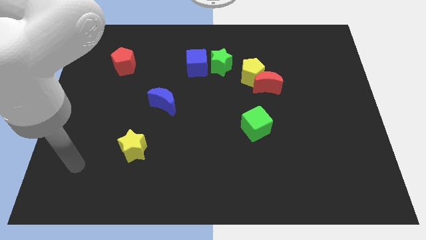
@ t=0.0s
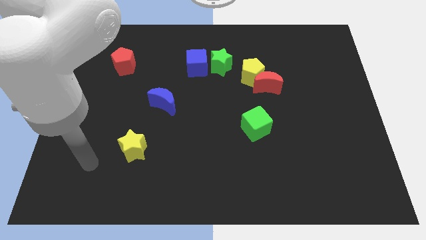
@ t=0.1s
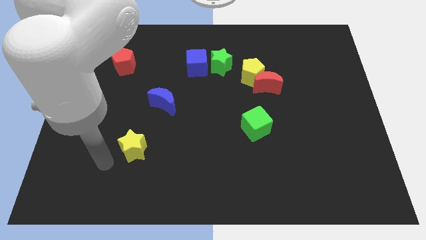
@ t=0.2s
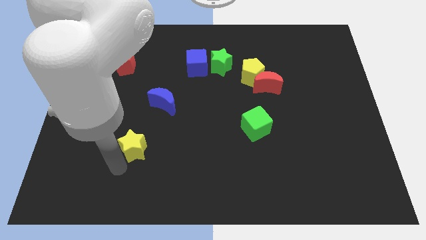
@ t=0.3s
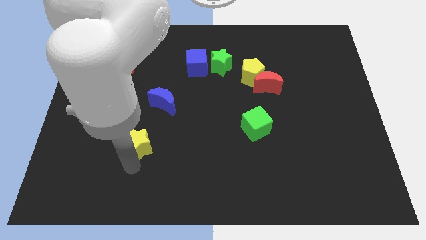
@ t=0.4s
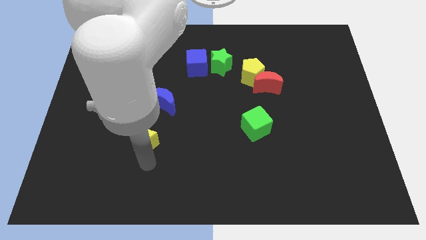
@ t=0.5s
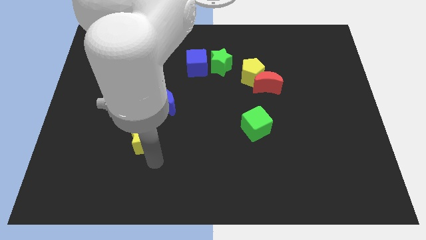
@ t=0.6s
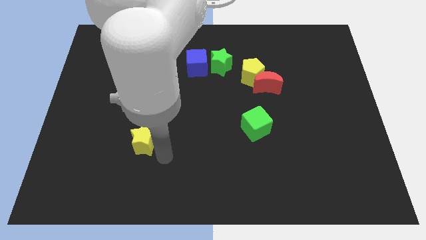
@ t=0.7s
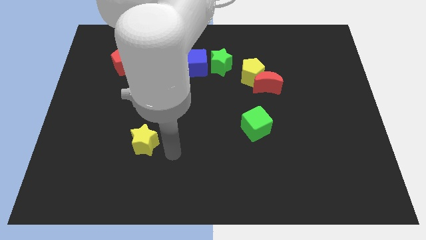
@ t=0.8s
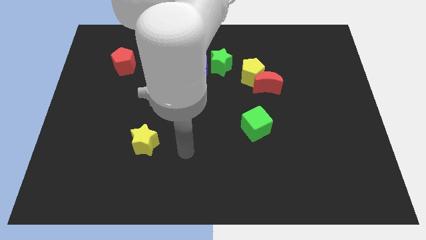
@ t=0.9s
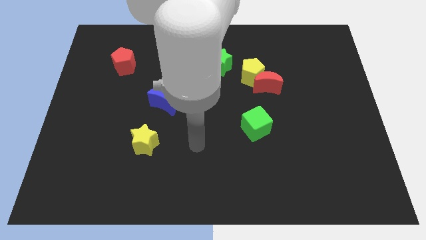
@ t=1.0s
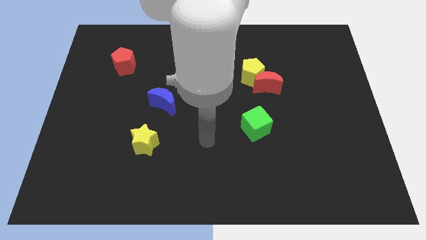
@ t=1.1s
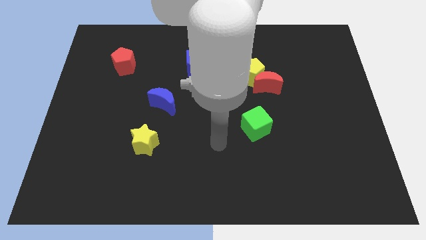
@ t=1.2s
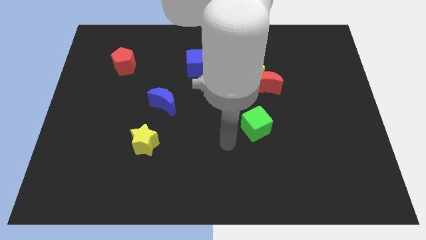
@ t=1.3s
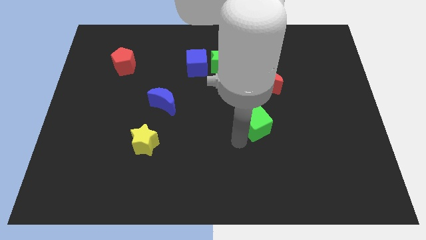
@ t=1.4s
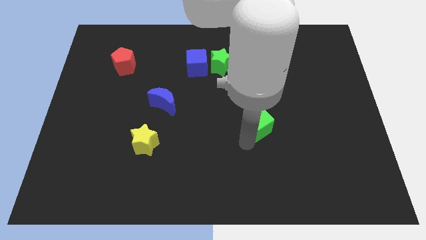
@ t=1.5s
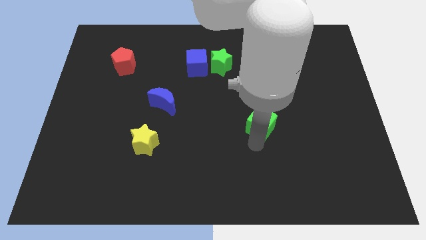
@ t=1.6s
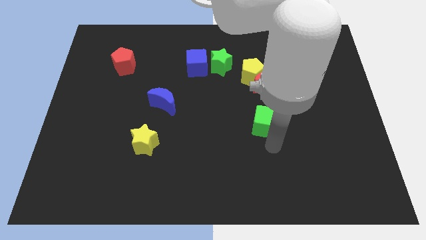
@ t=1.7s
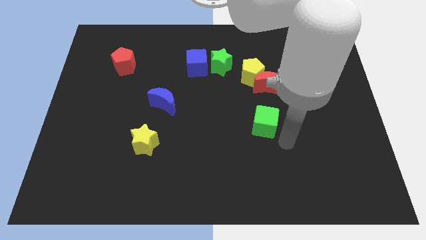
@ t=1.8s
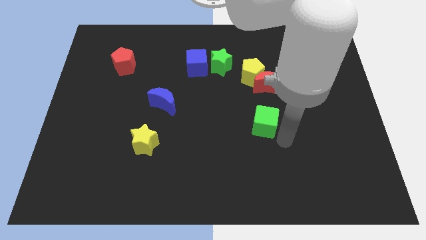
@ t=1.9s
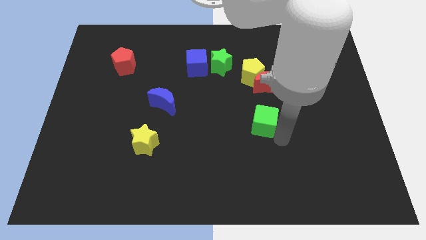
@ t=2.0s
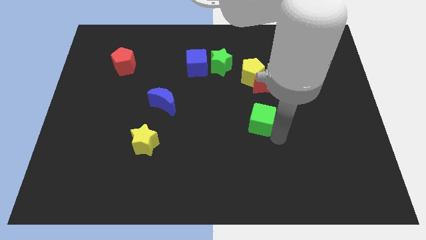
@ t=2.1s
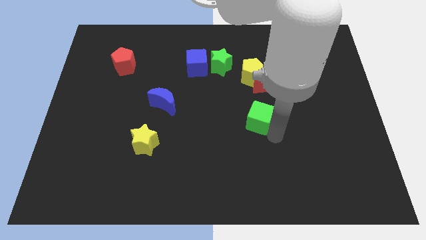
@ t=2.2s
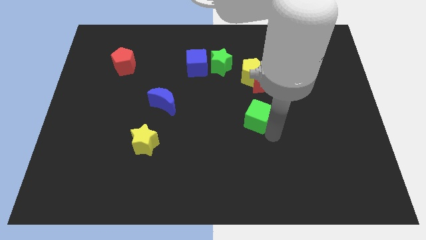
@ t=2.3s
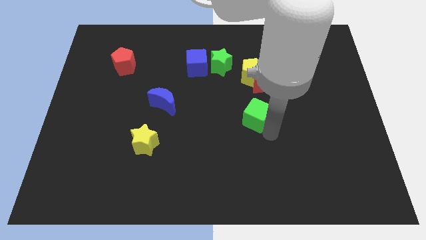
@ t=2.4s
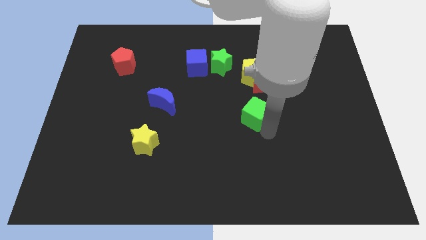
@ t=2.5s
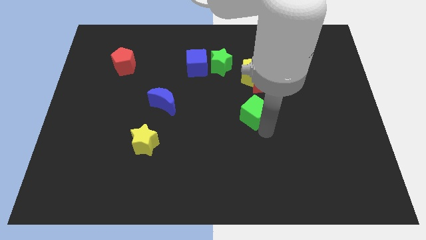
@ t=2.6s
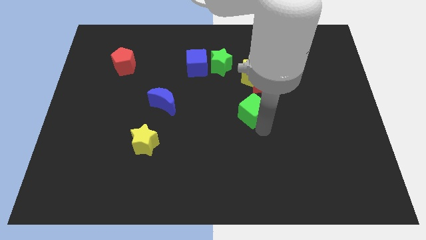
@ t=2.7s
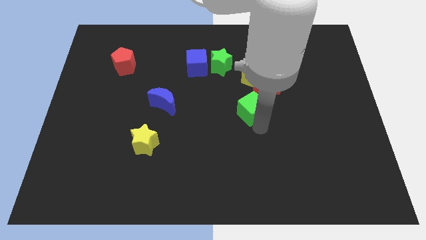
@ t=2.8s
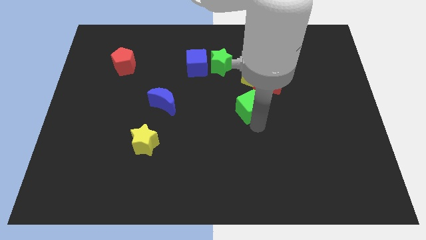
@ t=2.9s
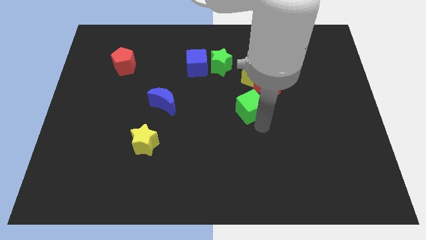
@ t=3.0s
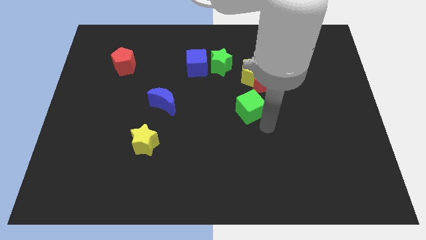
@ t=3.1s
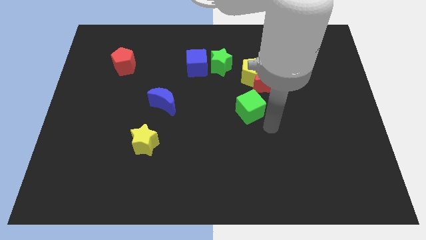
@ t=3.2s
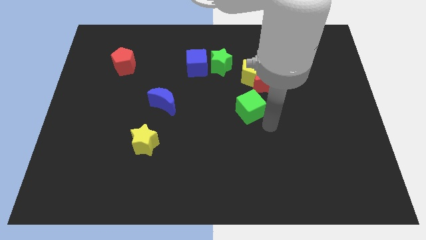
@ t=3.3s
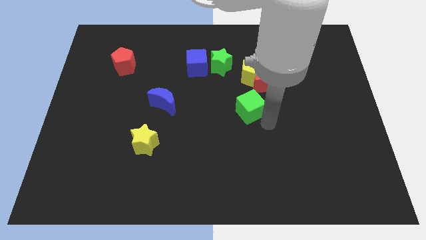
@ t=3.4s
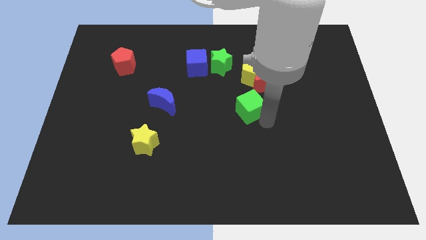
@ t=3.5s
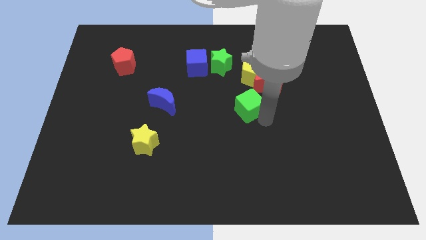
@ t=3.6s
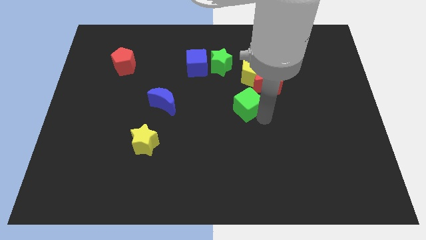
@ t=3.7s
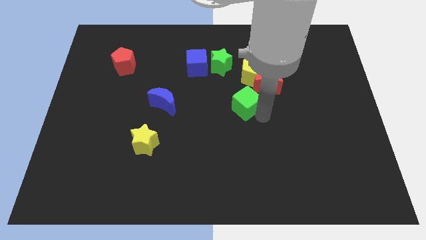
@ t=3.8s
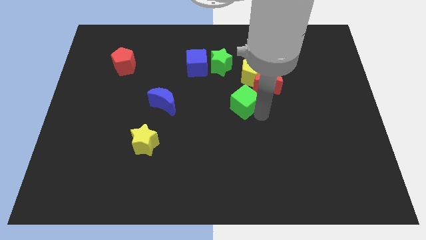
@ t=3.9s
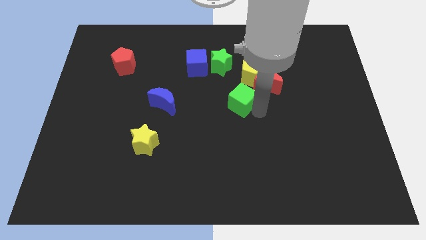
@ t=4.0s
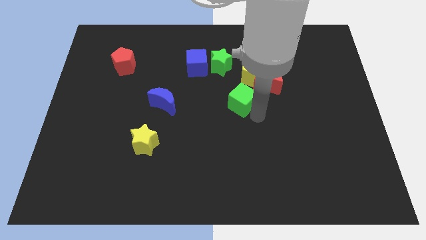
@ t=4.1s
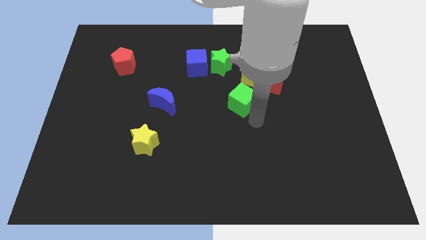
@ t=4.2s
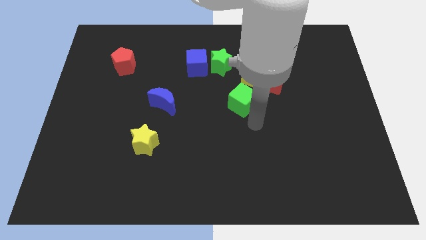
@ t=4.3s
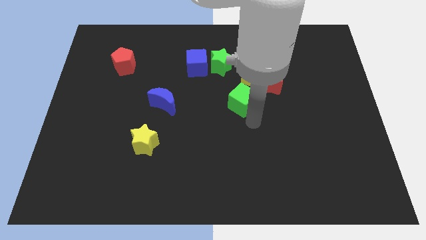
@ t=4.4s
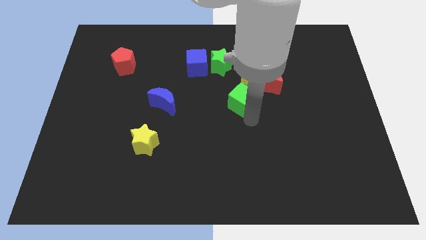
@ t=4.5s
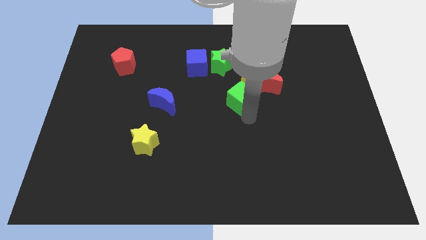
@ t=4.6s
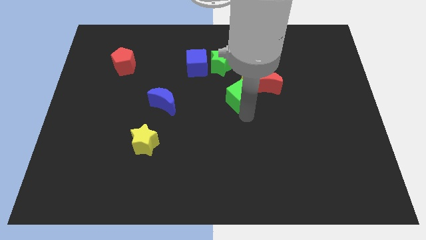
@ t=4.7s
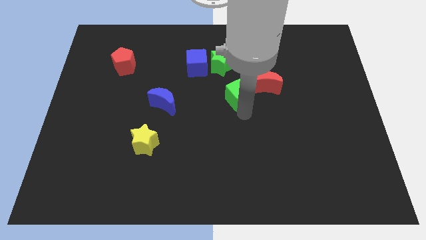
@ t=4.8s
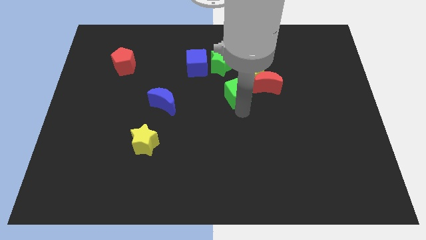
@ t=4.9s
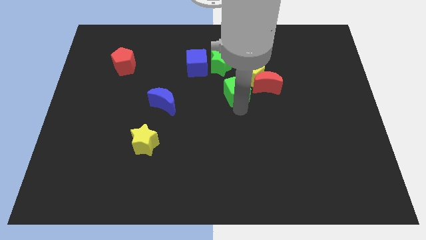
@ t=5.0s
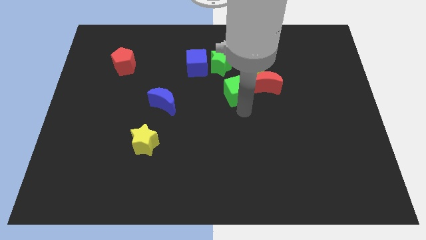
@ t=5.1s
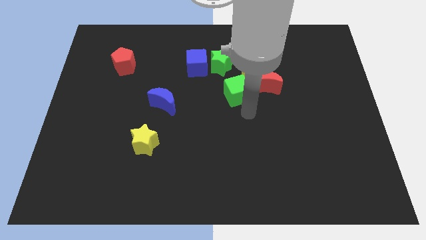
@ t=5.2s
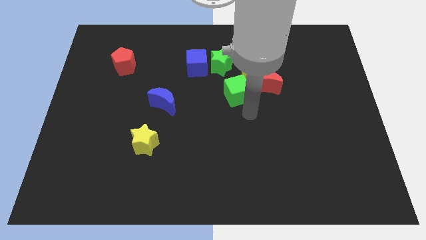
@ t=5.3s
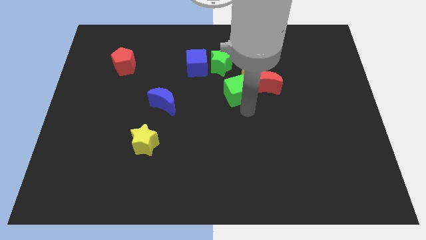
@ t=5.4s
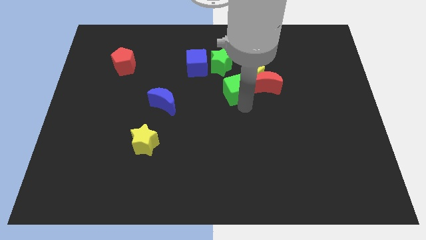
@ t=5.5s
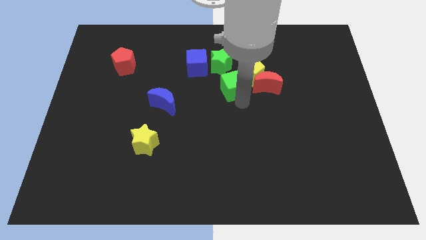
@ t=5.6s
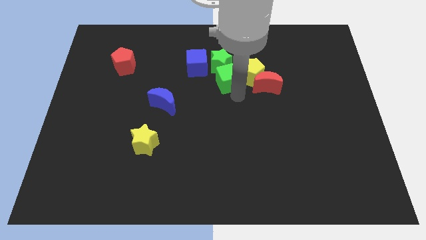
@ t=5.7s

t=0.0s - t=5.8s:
put the green cube next to the green star
